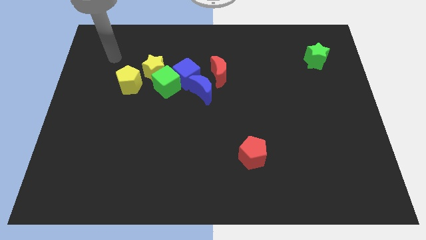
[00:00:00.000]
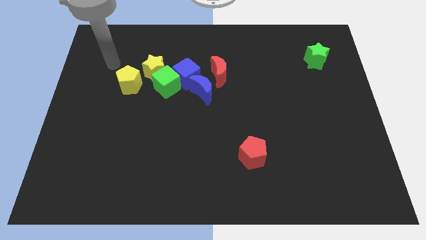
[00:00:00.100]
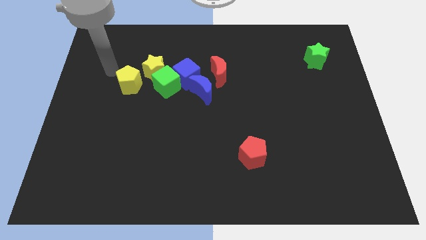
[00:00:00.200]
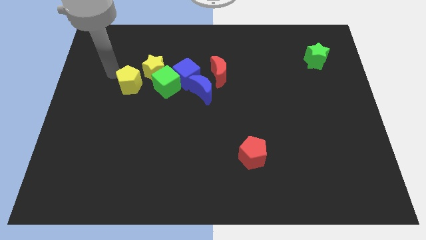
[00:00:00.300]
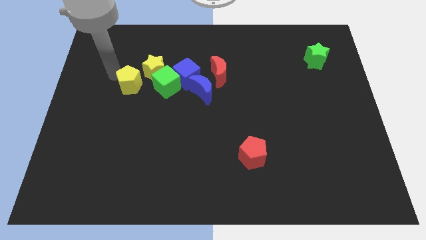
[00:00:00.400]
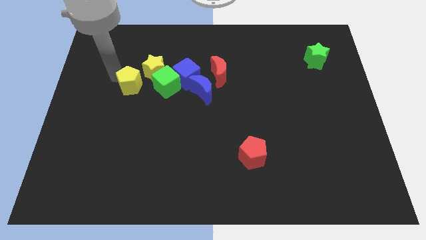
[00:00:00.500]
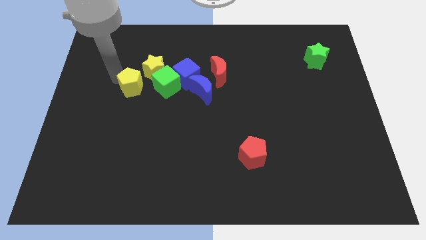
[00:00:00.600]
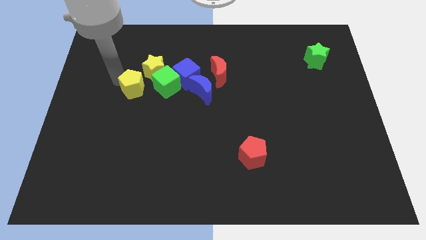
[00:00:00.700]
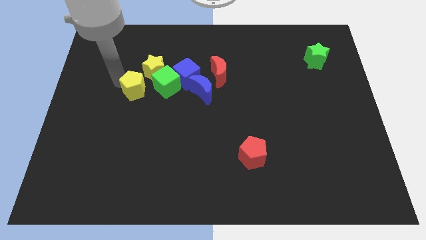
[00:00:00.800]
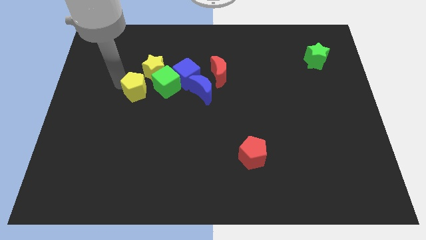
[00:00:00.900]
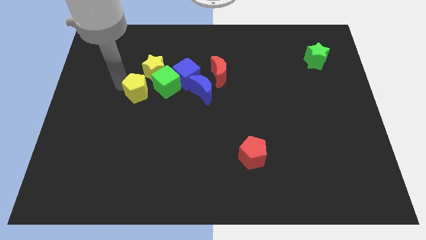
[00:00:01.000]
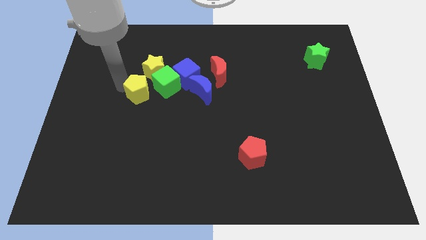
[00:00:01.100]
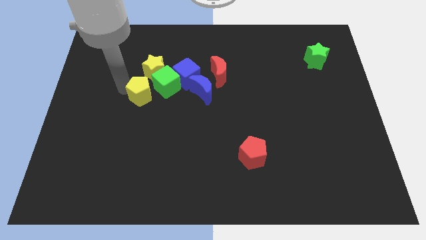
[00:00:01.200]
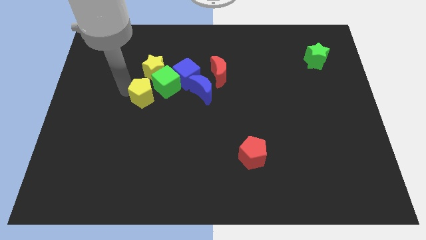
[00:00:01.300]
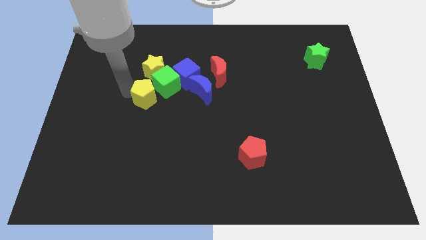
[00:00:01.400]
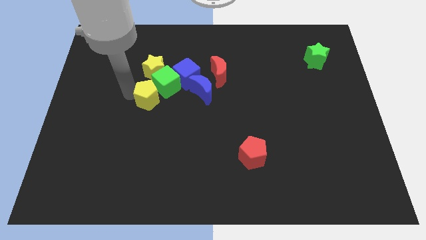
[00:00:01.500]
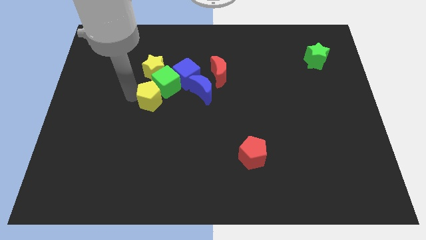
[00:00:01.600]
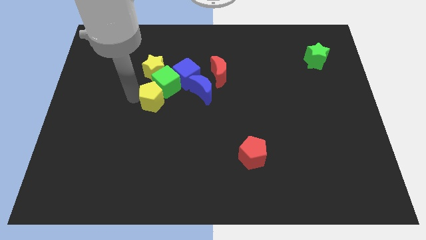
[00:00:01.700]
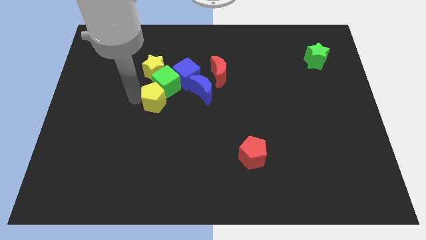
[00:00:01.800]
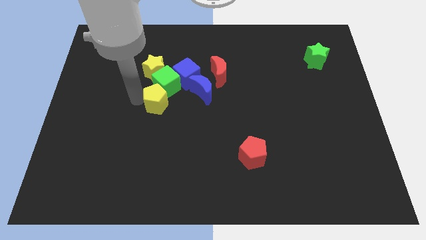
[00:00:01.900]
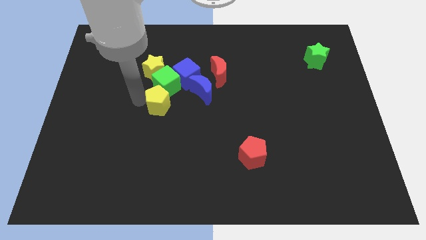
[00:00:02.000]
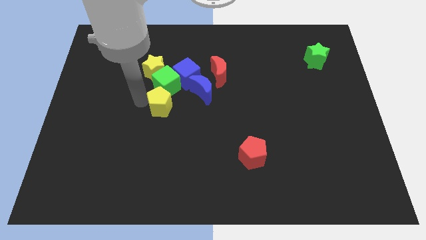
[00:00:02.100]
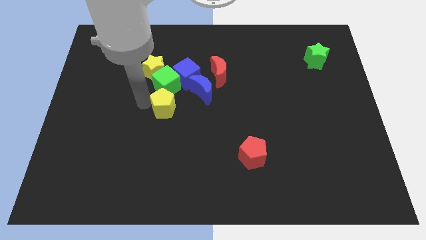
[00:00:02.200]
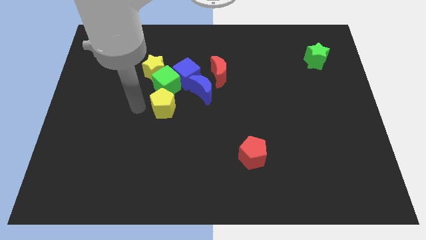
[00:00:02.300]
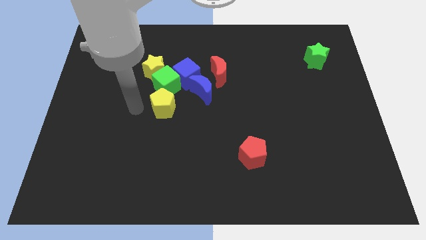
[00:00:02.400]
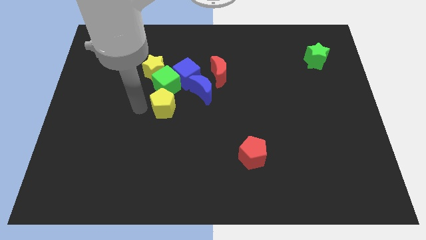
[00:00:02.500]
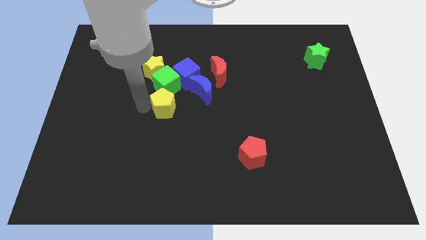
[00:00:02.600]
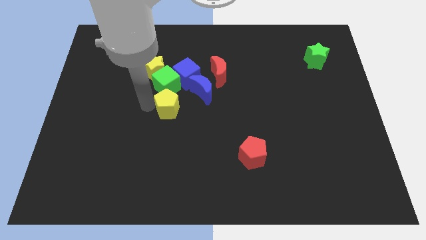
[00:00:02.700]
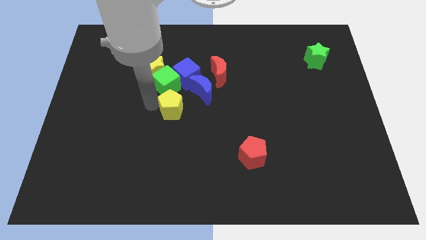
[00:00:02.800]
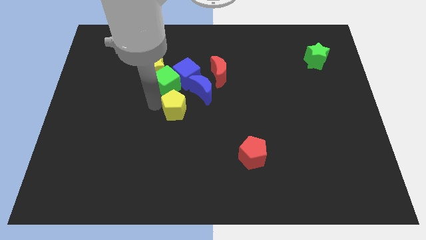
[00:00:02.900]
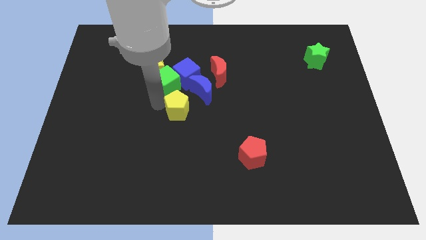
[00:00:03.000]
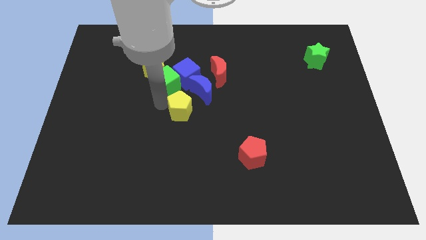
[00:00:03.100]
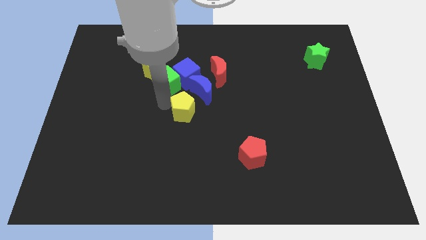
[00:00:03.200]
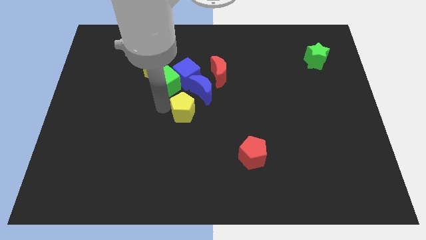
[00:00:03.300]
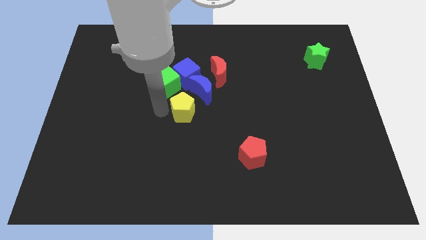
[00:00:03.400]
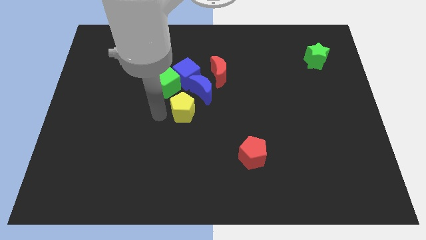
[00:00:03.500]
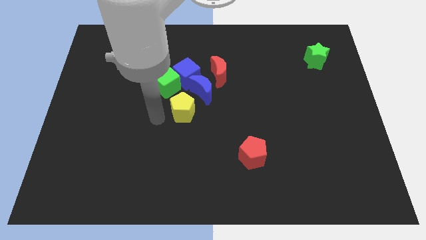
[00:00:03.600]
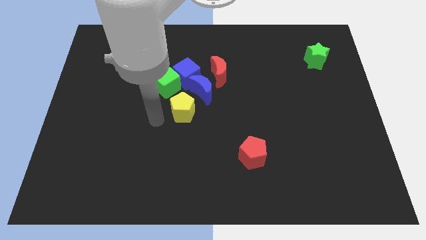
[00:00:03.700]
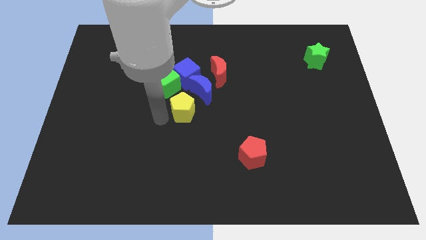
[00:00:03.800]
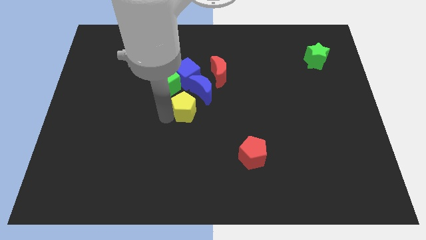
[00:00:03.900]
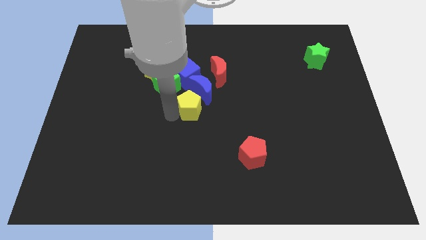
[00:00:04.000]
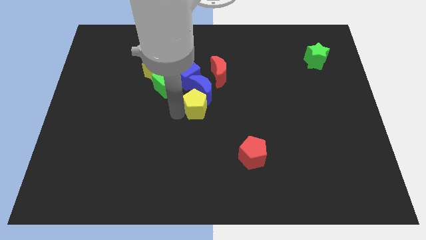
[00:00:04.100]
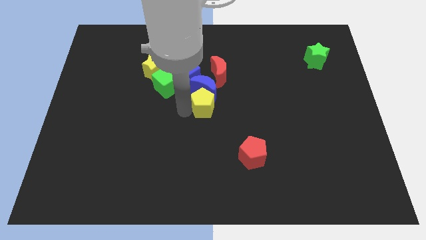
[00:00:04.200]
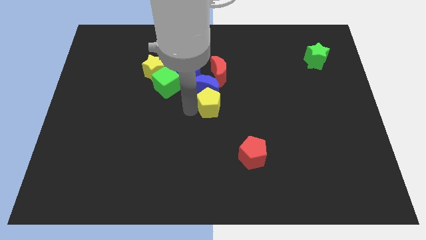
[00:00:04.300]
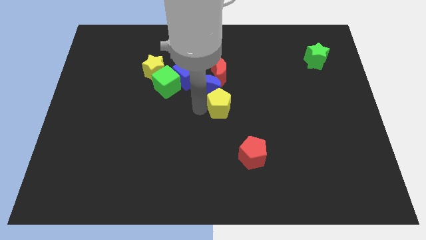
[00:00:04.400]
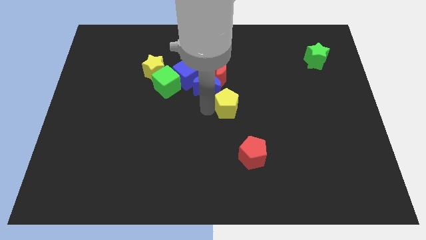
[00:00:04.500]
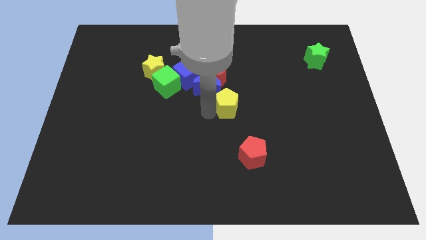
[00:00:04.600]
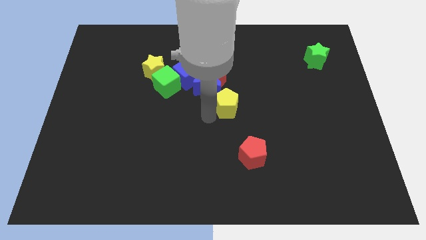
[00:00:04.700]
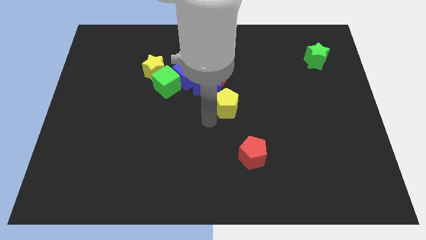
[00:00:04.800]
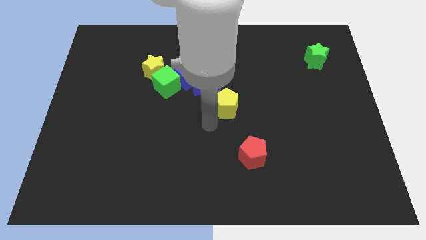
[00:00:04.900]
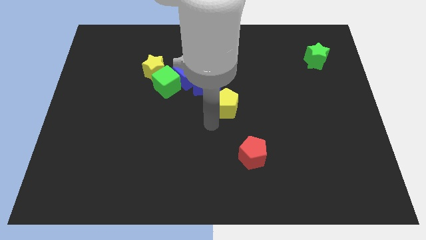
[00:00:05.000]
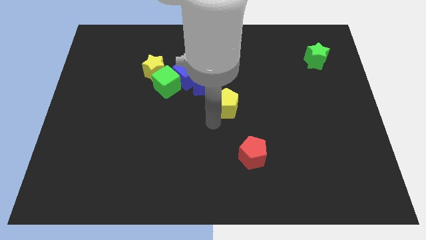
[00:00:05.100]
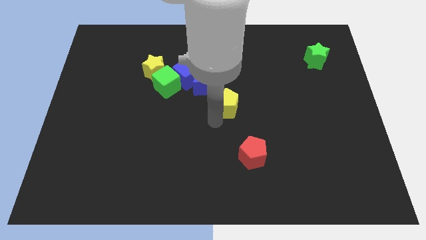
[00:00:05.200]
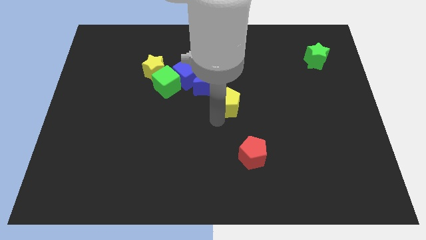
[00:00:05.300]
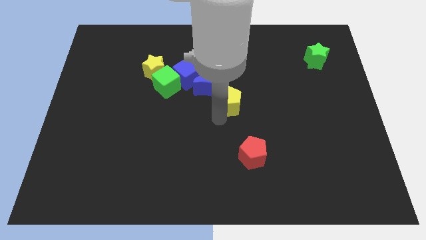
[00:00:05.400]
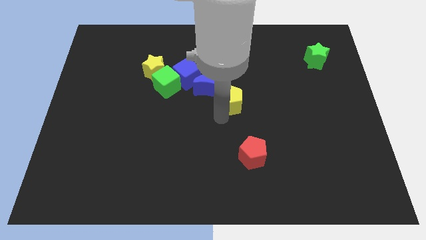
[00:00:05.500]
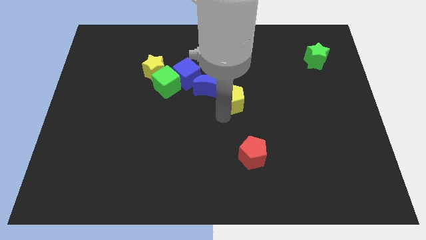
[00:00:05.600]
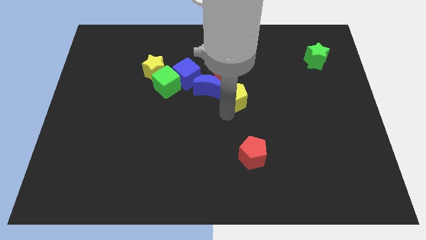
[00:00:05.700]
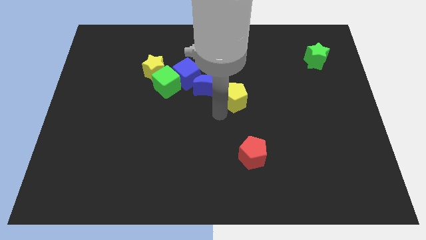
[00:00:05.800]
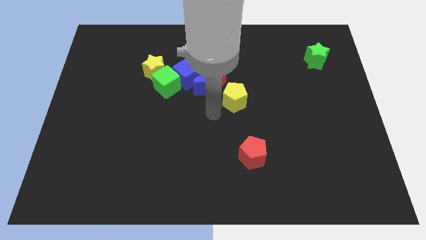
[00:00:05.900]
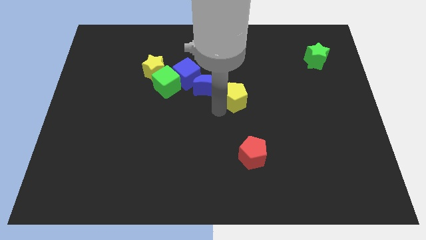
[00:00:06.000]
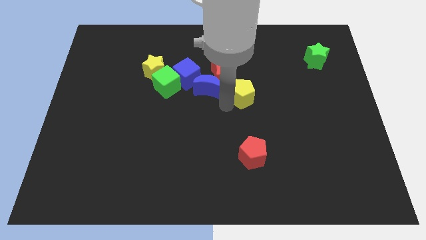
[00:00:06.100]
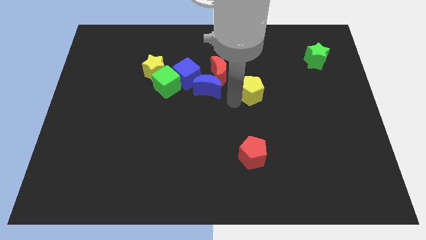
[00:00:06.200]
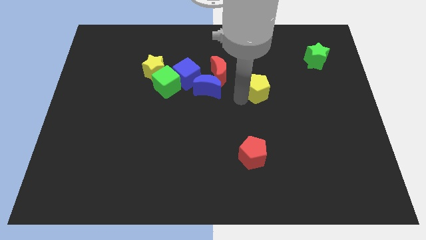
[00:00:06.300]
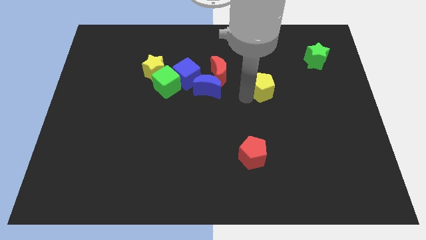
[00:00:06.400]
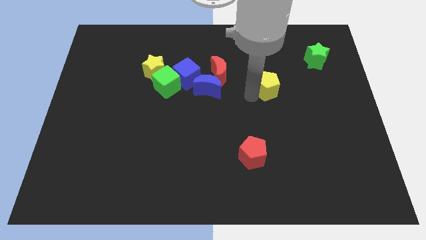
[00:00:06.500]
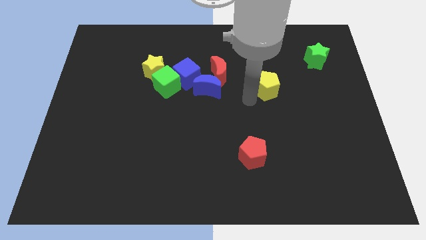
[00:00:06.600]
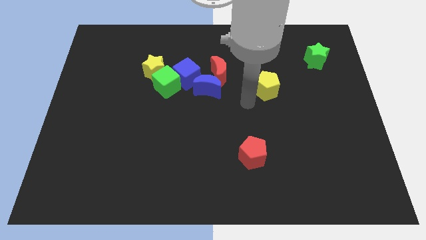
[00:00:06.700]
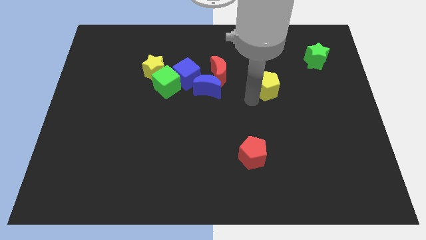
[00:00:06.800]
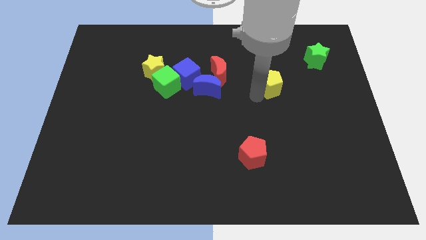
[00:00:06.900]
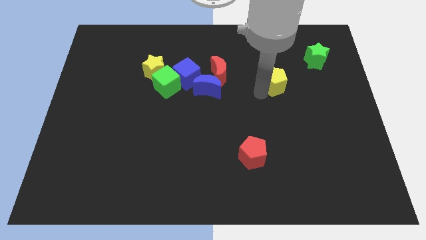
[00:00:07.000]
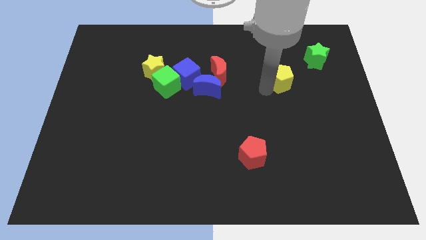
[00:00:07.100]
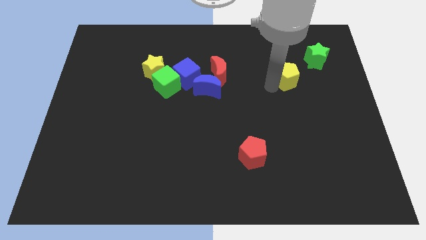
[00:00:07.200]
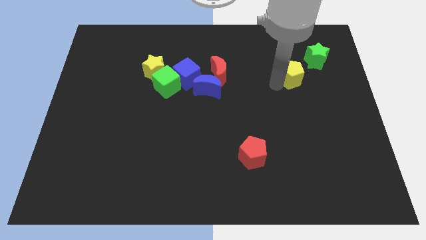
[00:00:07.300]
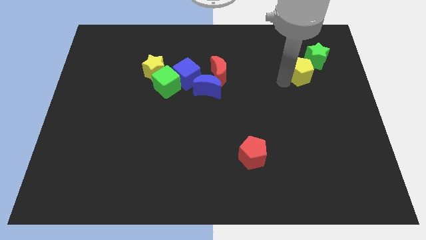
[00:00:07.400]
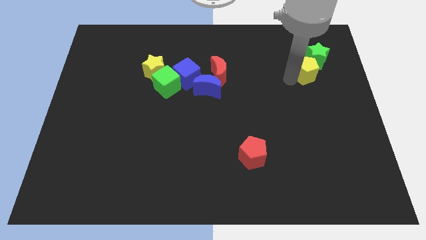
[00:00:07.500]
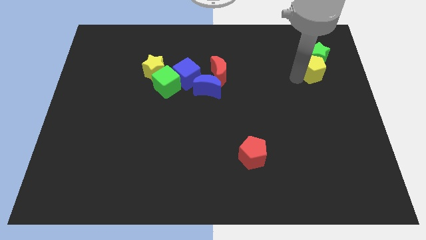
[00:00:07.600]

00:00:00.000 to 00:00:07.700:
move the yellow pentagon next to the green star
